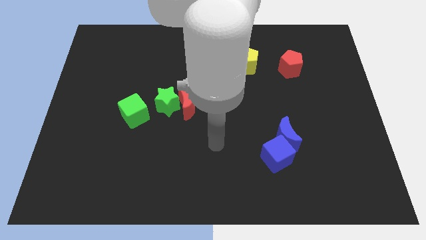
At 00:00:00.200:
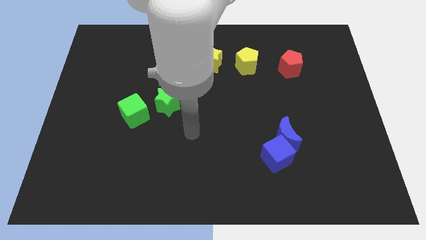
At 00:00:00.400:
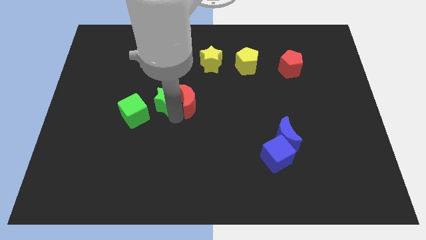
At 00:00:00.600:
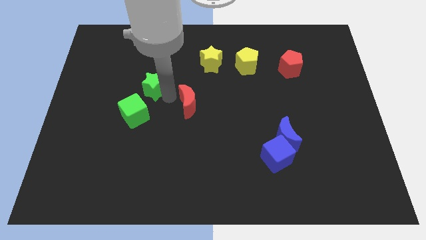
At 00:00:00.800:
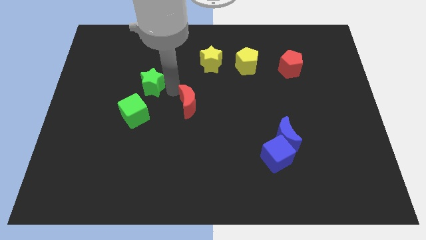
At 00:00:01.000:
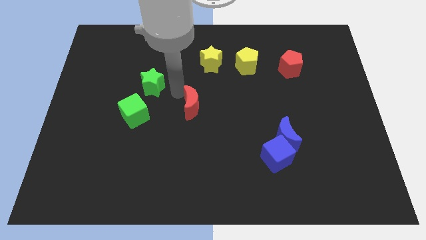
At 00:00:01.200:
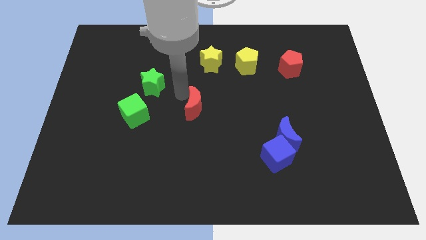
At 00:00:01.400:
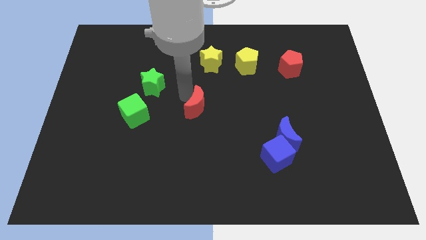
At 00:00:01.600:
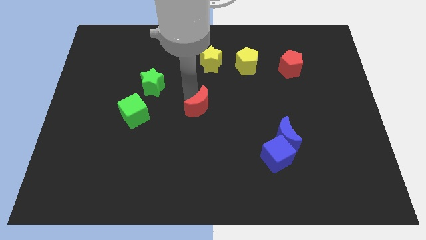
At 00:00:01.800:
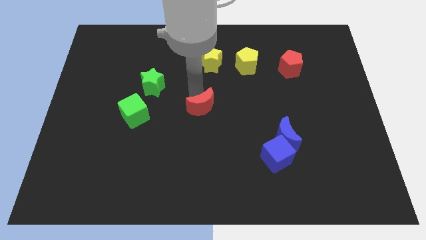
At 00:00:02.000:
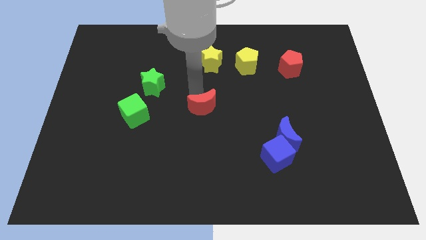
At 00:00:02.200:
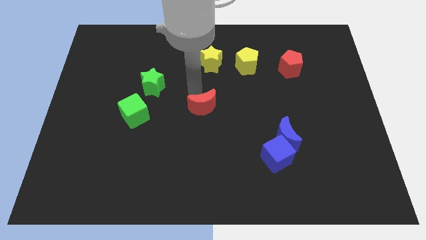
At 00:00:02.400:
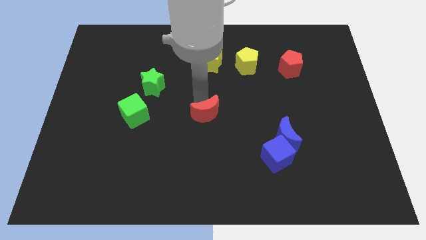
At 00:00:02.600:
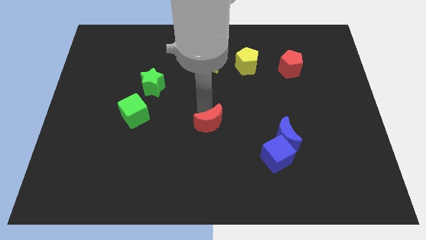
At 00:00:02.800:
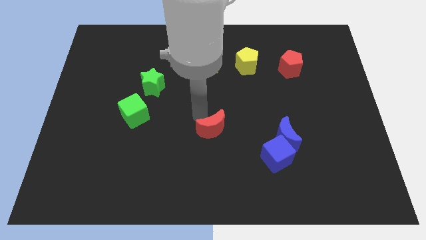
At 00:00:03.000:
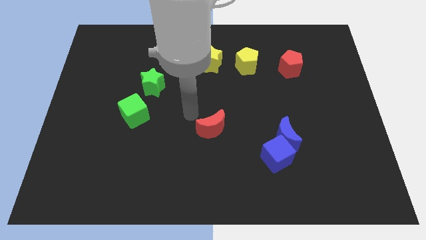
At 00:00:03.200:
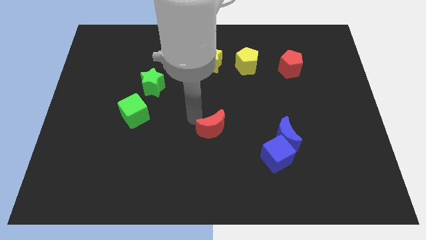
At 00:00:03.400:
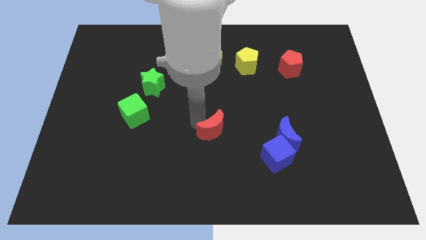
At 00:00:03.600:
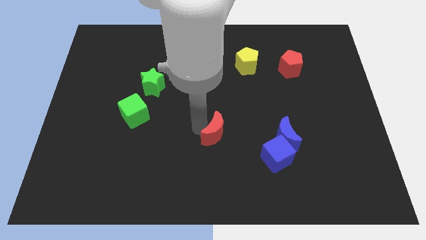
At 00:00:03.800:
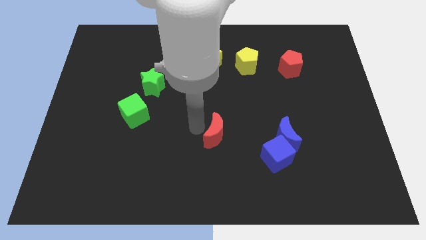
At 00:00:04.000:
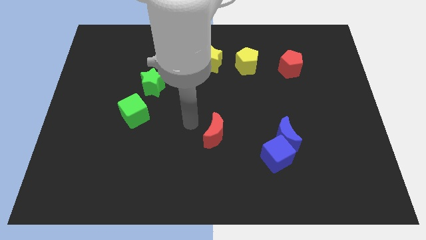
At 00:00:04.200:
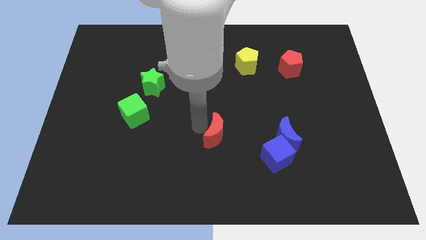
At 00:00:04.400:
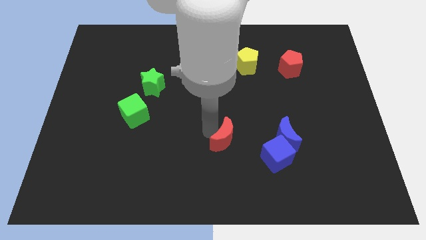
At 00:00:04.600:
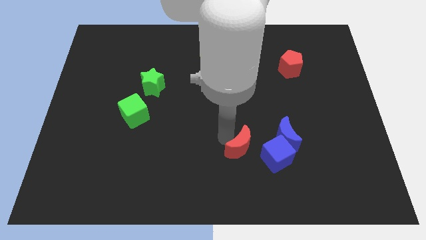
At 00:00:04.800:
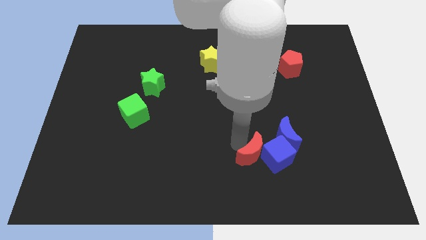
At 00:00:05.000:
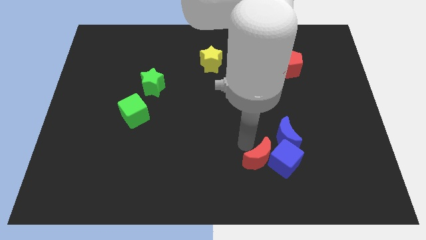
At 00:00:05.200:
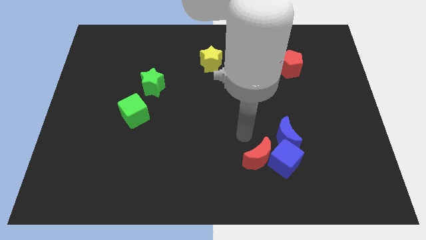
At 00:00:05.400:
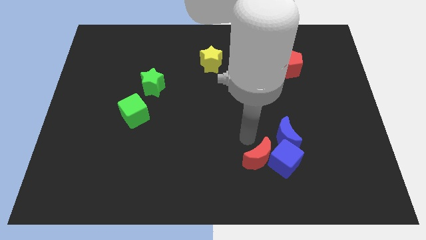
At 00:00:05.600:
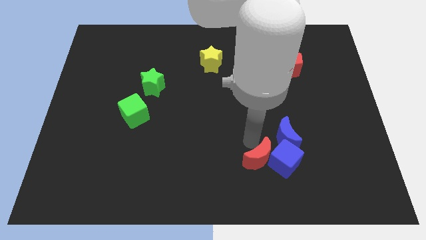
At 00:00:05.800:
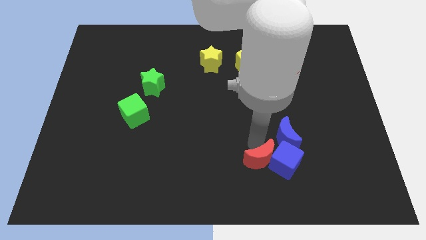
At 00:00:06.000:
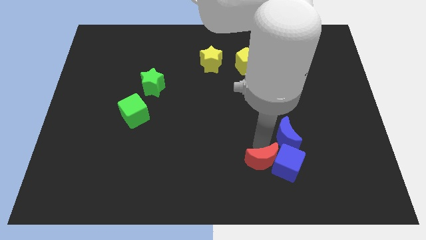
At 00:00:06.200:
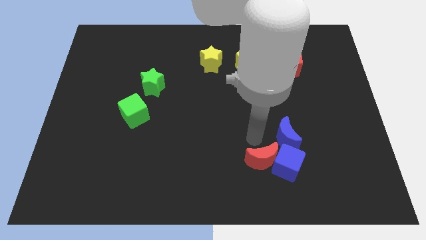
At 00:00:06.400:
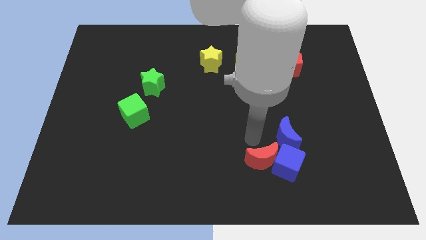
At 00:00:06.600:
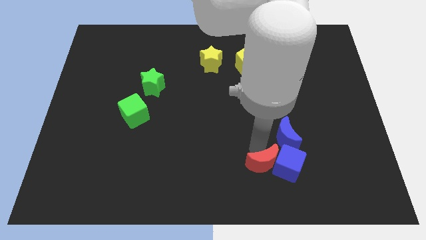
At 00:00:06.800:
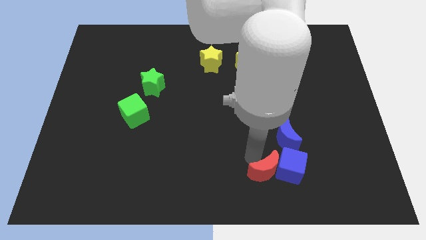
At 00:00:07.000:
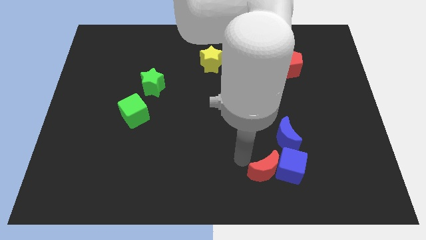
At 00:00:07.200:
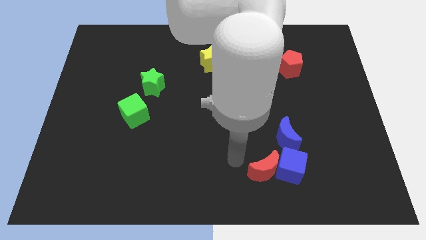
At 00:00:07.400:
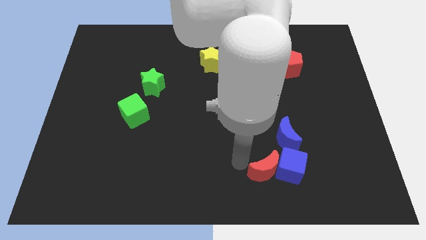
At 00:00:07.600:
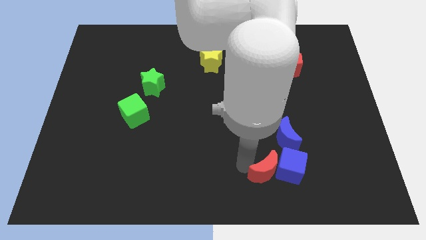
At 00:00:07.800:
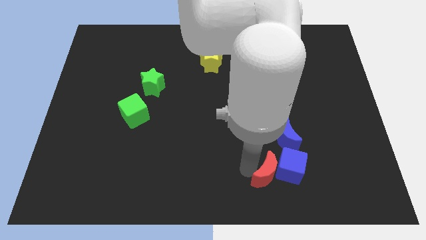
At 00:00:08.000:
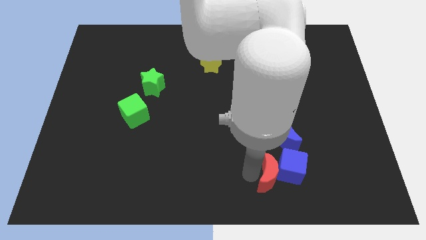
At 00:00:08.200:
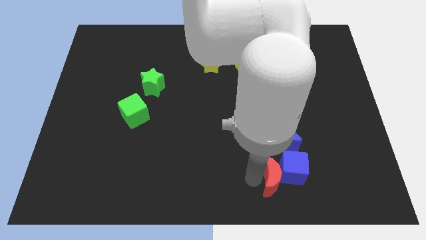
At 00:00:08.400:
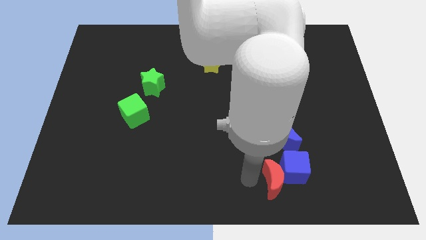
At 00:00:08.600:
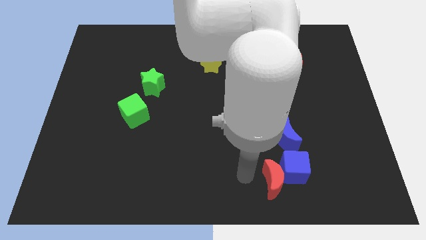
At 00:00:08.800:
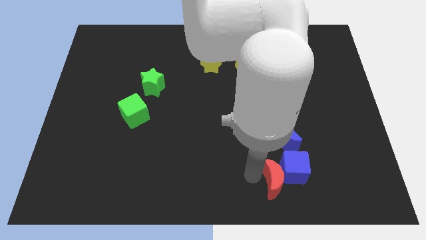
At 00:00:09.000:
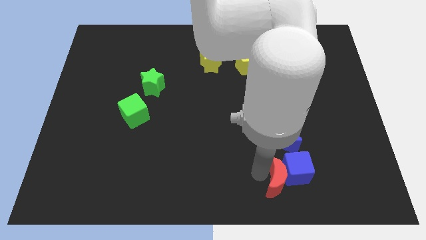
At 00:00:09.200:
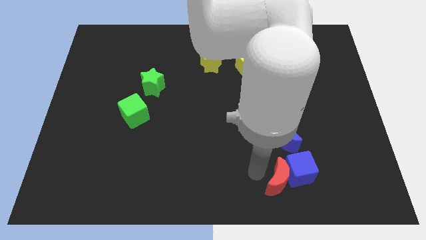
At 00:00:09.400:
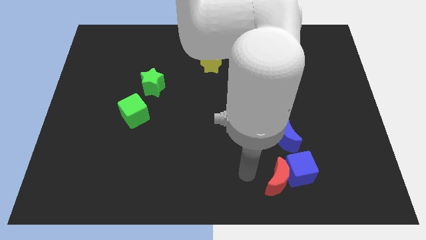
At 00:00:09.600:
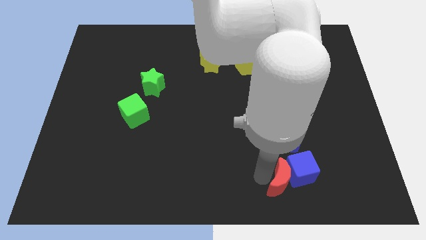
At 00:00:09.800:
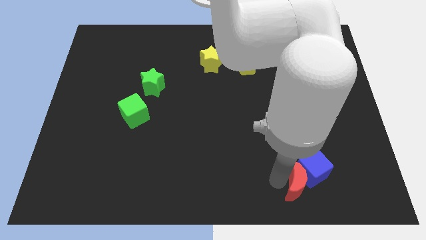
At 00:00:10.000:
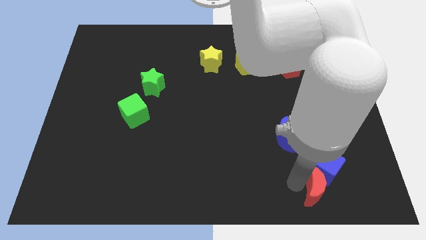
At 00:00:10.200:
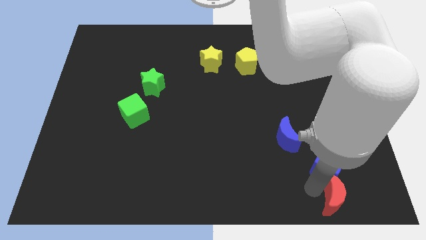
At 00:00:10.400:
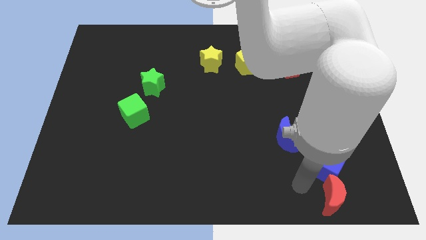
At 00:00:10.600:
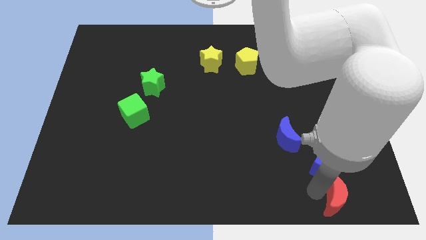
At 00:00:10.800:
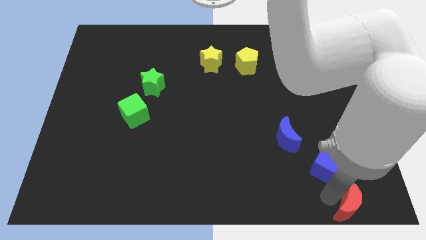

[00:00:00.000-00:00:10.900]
push the red moon to the bottom right corner

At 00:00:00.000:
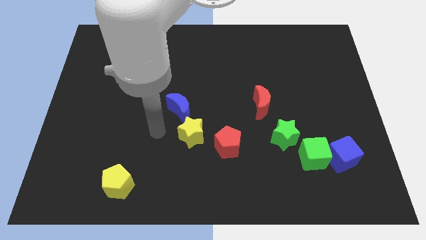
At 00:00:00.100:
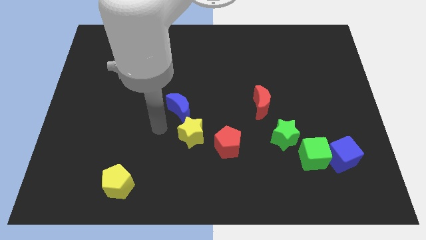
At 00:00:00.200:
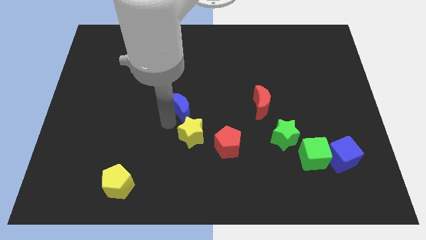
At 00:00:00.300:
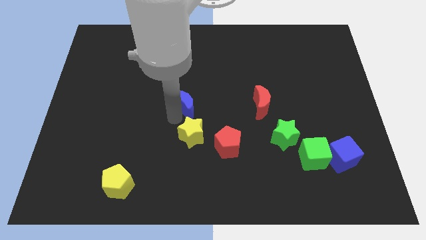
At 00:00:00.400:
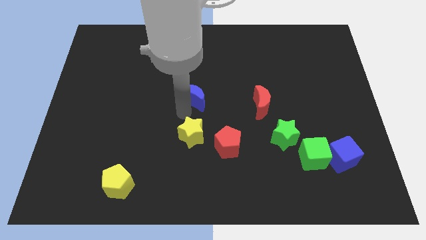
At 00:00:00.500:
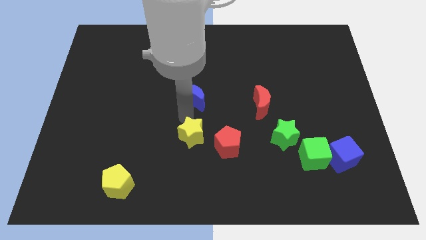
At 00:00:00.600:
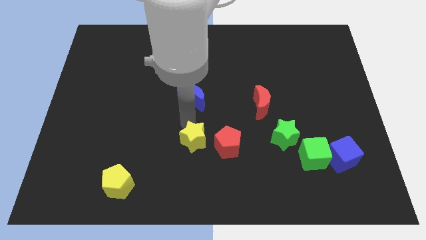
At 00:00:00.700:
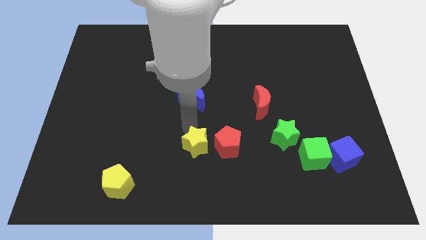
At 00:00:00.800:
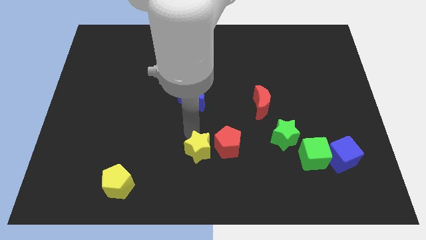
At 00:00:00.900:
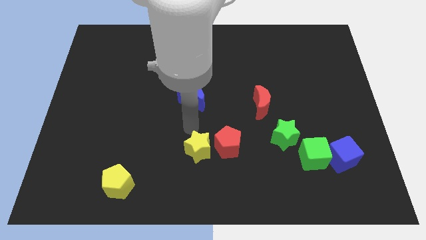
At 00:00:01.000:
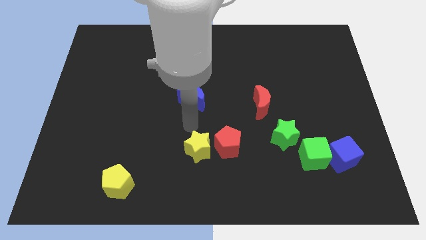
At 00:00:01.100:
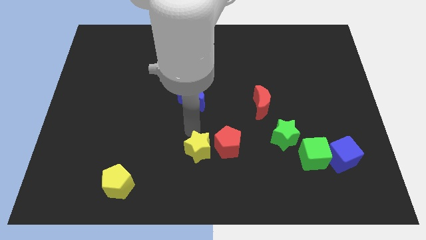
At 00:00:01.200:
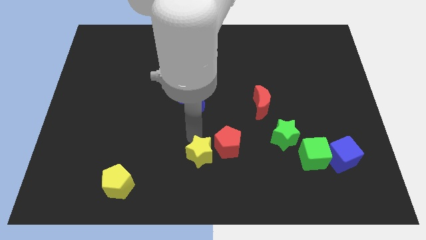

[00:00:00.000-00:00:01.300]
move the yellow star to the bottom side
